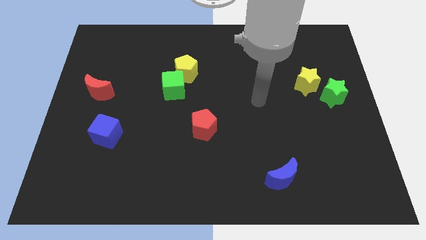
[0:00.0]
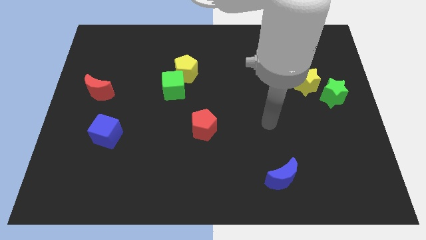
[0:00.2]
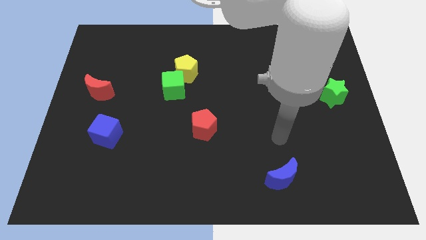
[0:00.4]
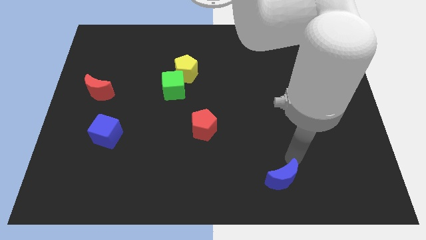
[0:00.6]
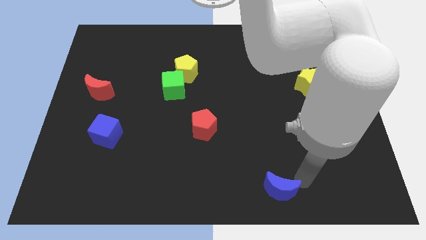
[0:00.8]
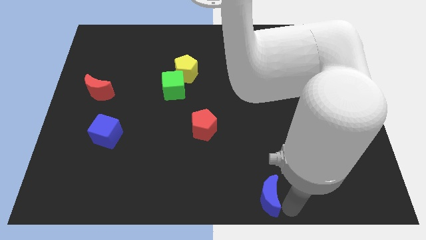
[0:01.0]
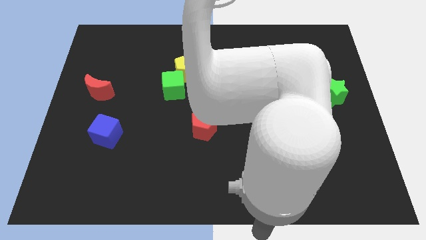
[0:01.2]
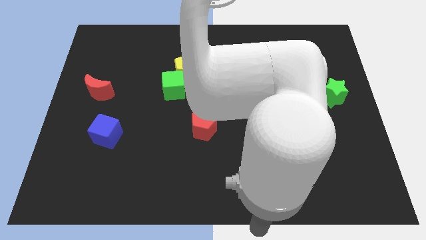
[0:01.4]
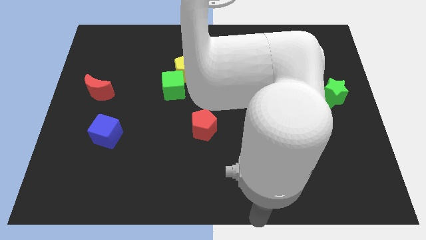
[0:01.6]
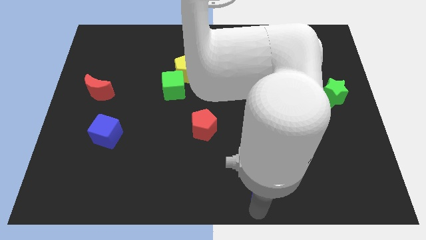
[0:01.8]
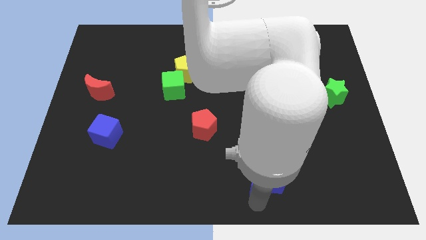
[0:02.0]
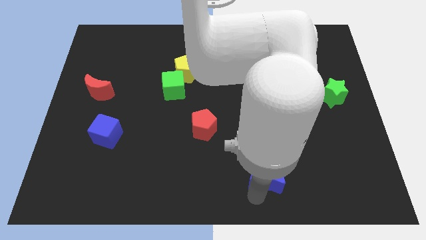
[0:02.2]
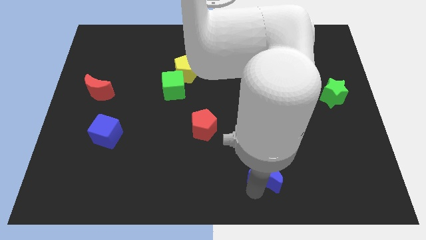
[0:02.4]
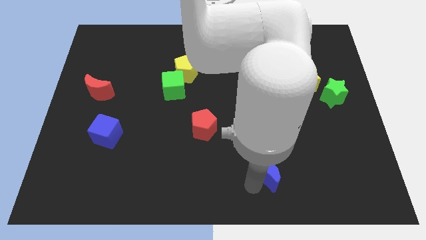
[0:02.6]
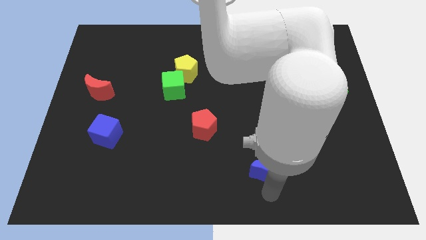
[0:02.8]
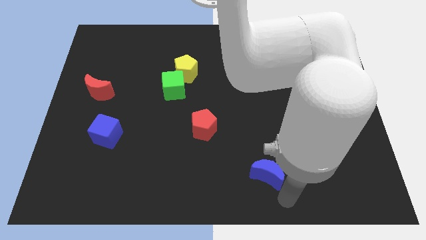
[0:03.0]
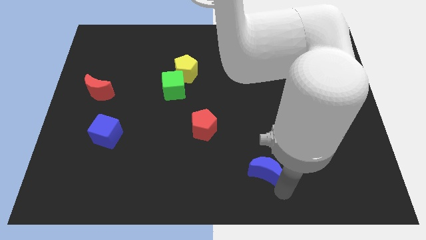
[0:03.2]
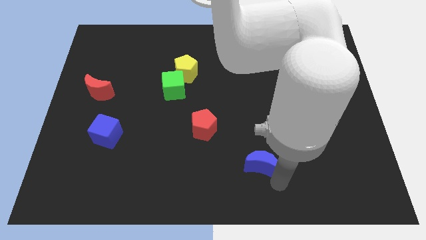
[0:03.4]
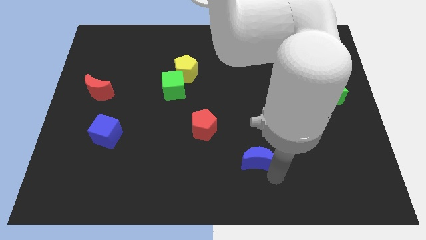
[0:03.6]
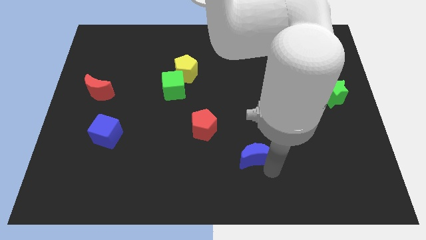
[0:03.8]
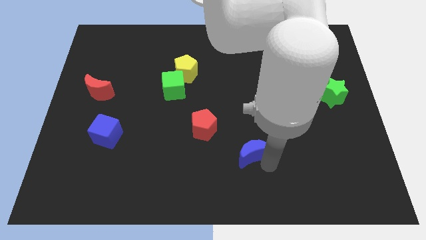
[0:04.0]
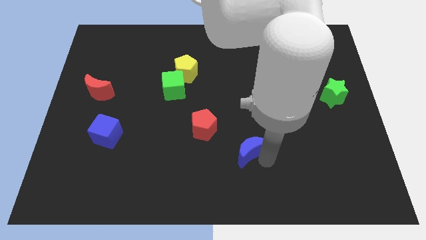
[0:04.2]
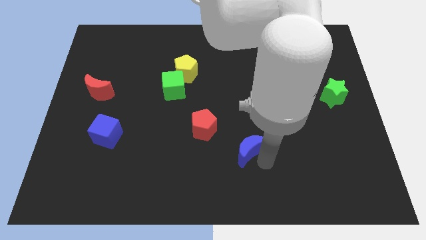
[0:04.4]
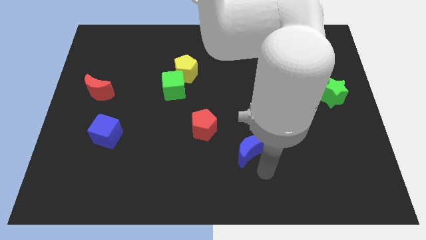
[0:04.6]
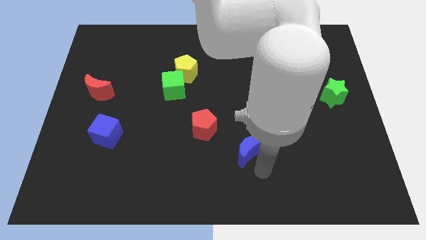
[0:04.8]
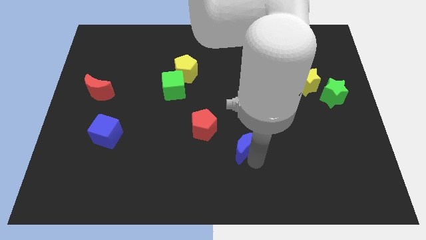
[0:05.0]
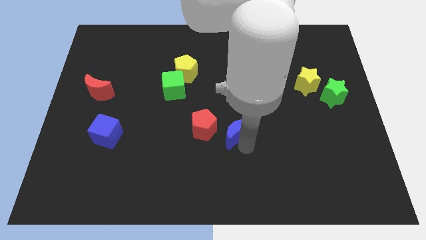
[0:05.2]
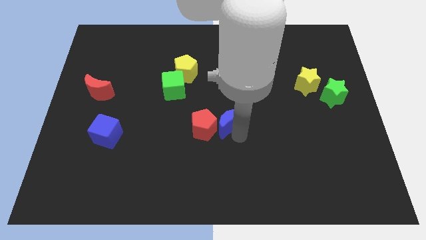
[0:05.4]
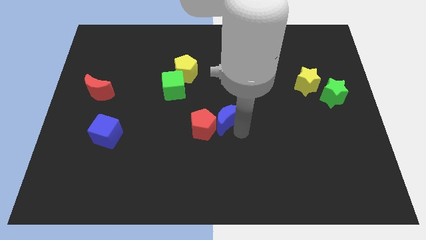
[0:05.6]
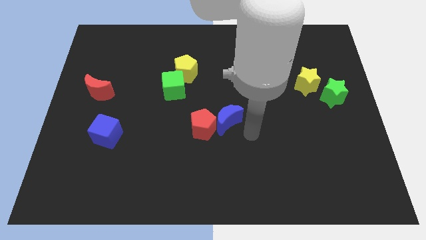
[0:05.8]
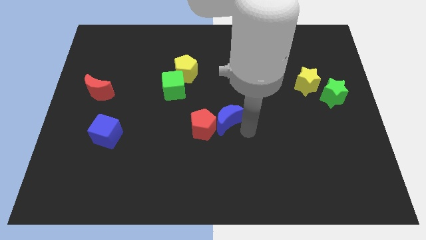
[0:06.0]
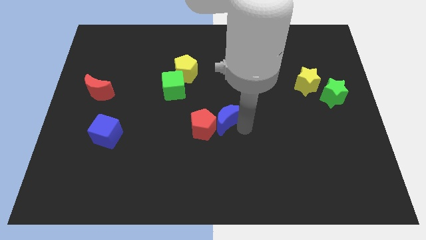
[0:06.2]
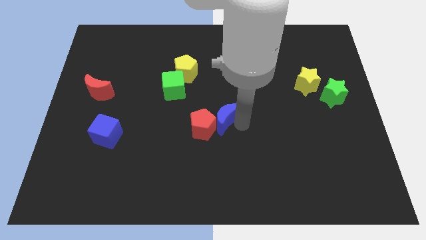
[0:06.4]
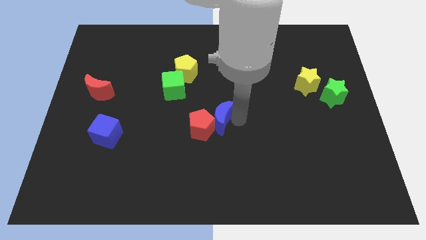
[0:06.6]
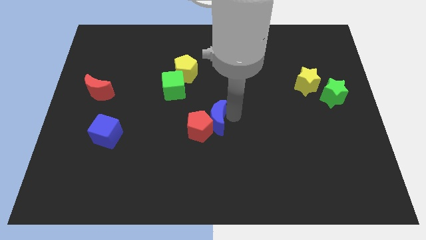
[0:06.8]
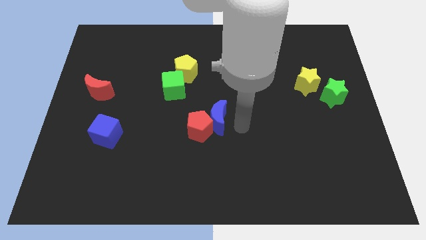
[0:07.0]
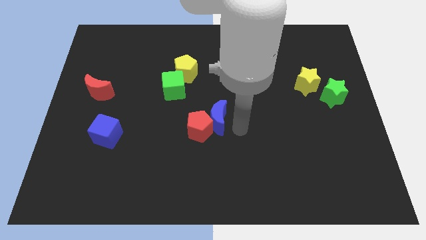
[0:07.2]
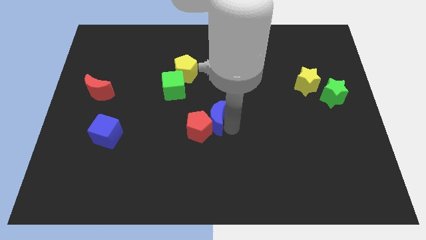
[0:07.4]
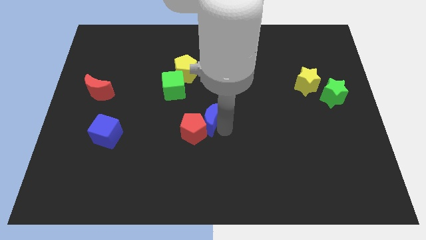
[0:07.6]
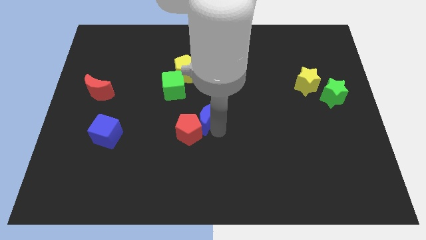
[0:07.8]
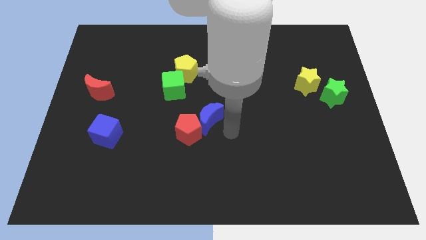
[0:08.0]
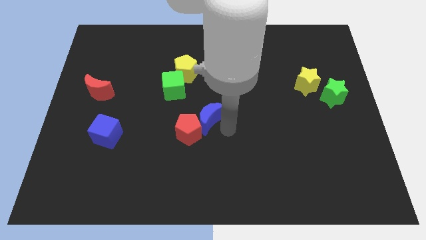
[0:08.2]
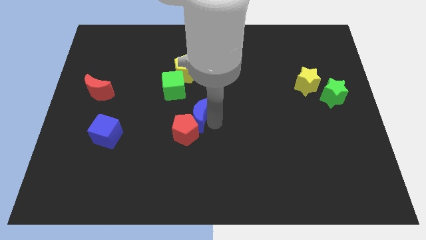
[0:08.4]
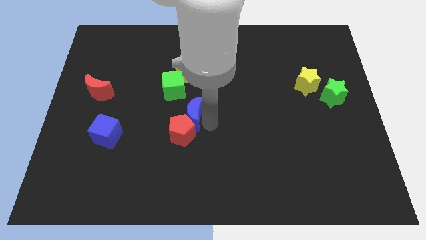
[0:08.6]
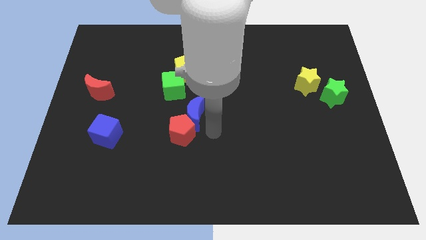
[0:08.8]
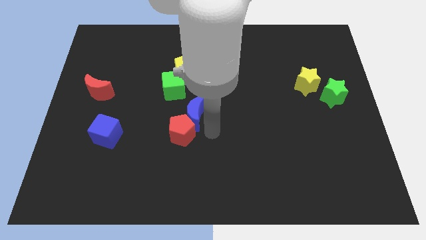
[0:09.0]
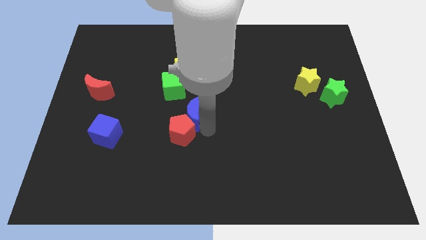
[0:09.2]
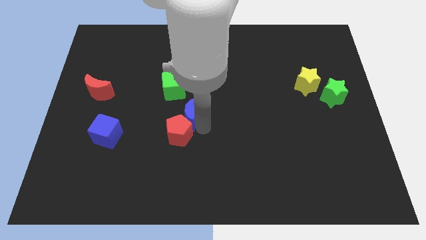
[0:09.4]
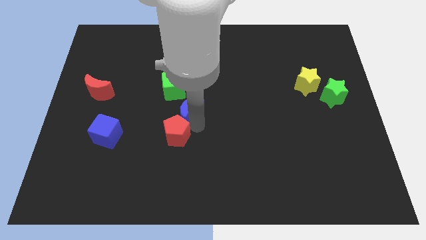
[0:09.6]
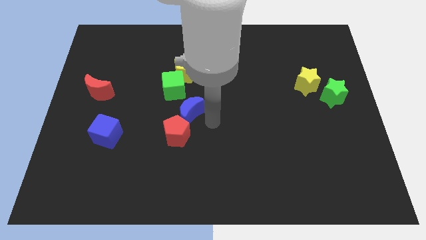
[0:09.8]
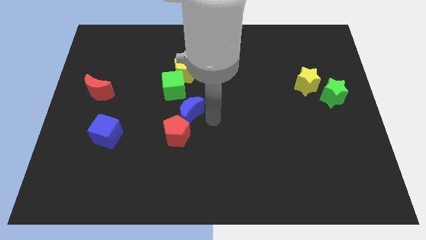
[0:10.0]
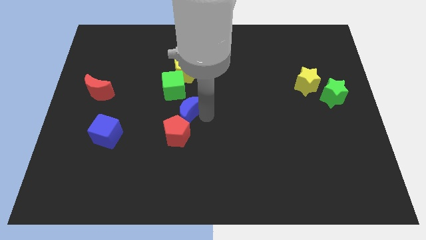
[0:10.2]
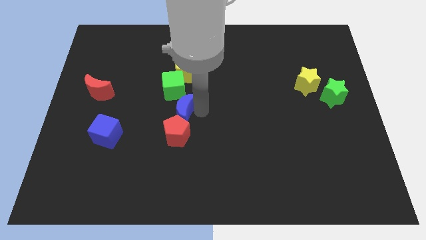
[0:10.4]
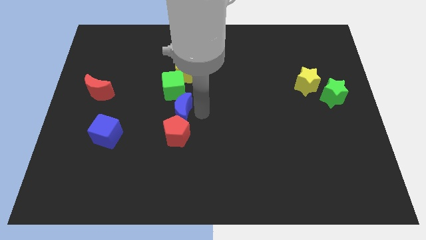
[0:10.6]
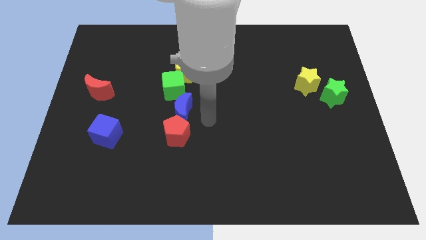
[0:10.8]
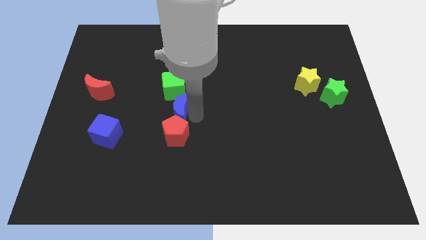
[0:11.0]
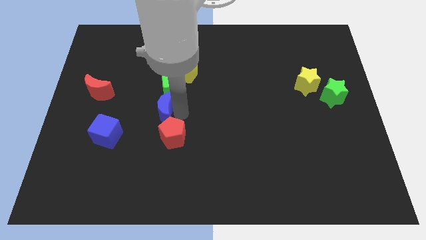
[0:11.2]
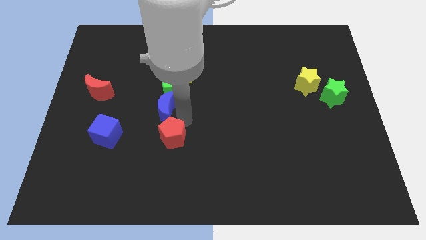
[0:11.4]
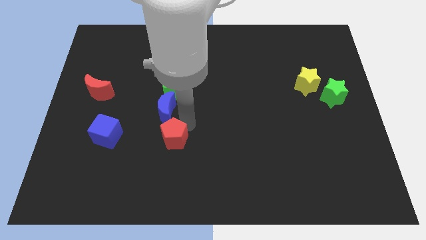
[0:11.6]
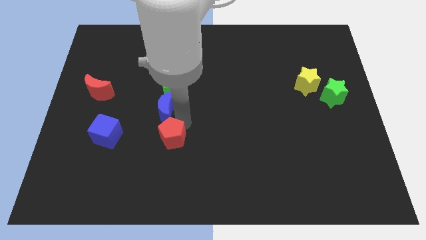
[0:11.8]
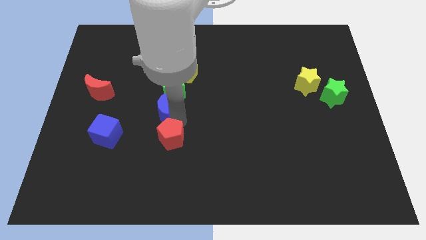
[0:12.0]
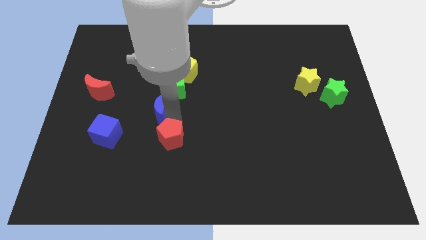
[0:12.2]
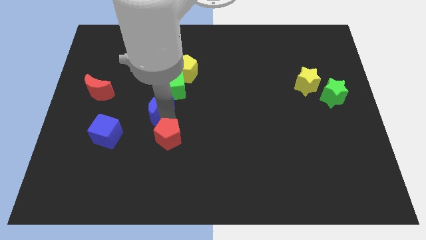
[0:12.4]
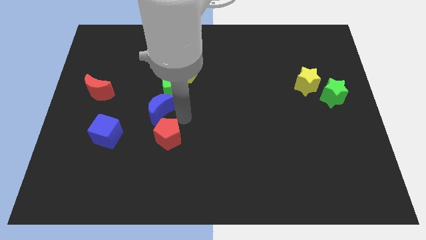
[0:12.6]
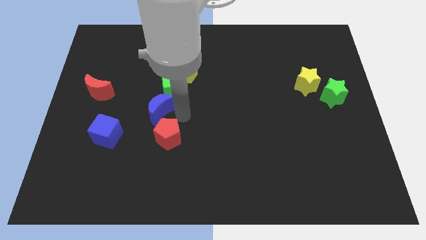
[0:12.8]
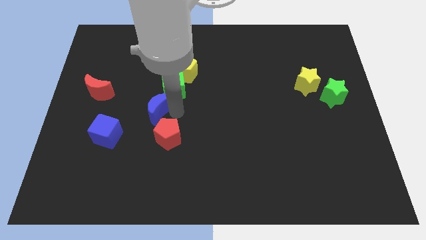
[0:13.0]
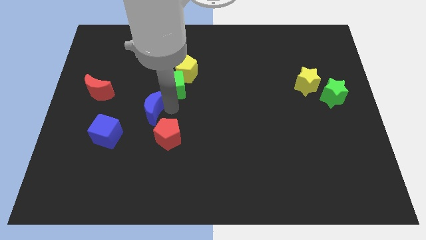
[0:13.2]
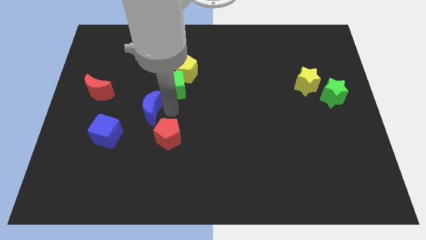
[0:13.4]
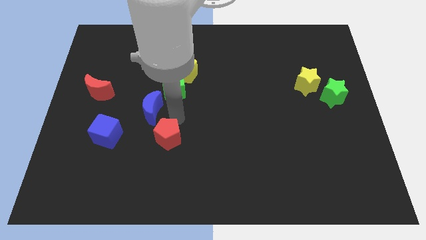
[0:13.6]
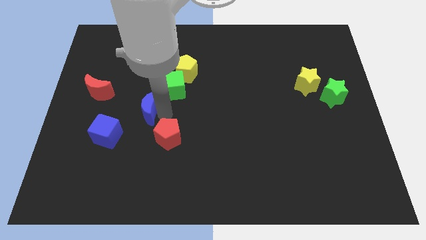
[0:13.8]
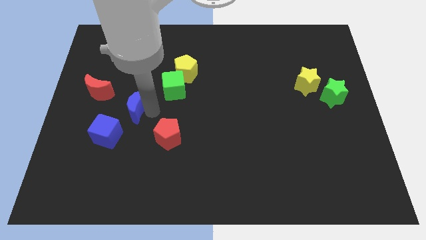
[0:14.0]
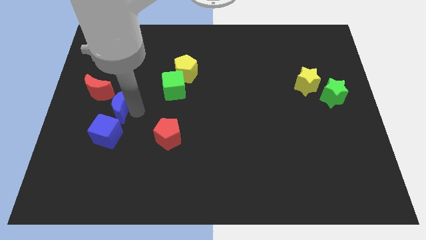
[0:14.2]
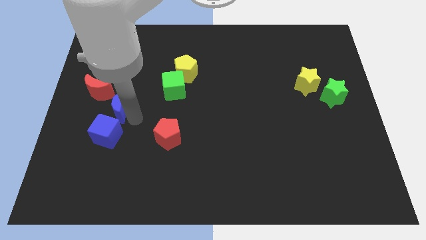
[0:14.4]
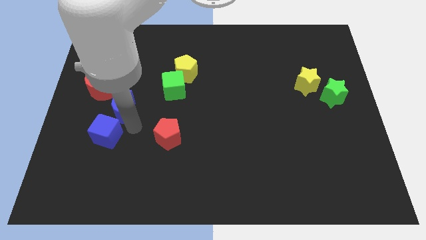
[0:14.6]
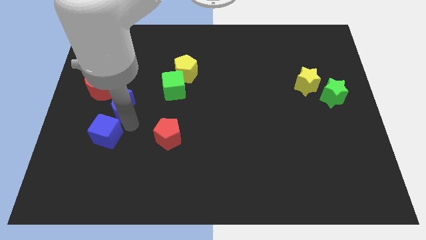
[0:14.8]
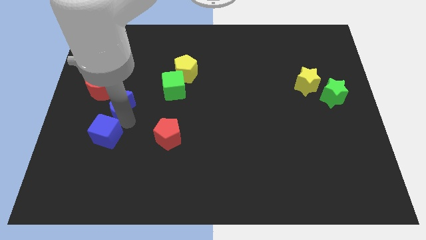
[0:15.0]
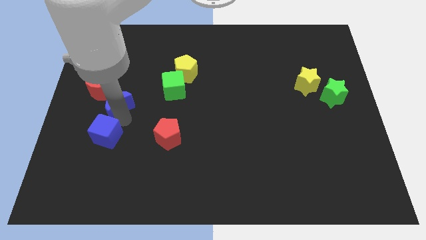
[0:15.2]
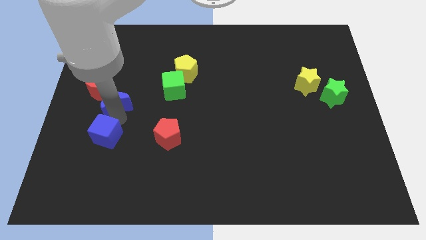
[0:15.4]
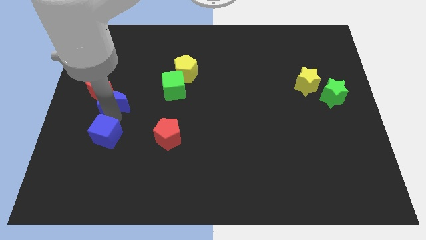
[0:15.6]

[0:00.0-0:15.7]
push the blue moon towards the red moon
